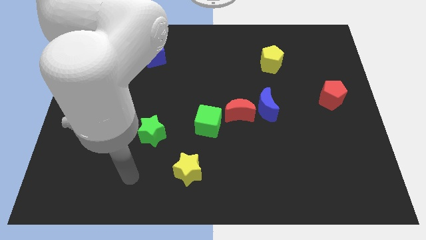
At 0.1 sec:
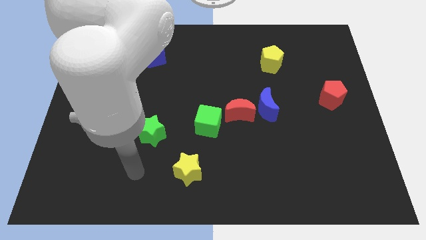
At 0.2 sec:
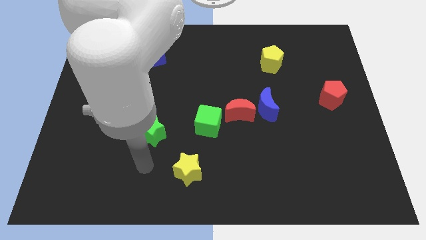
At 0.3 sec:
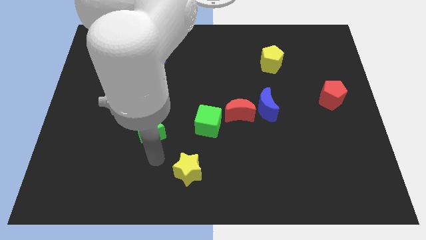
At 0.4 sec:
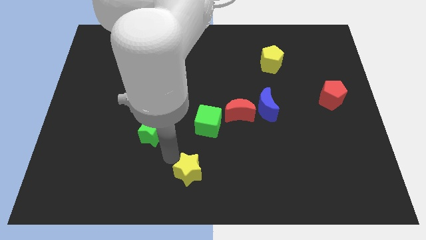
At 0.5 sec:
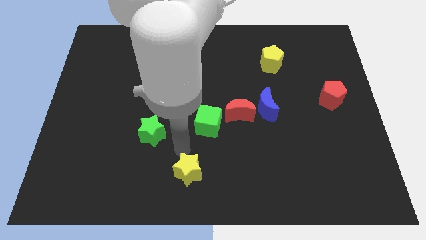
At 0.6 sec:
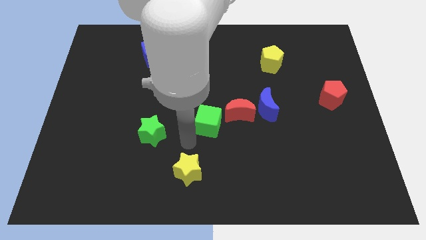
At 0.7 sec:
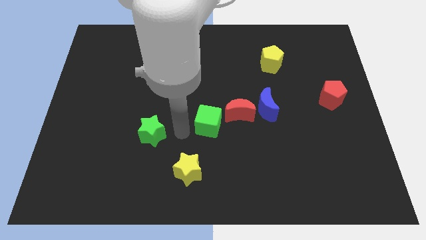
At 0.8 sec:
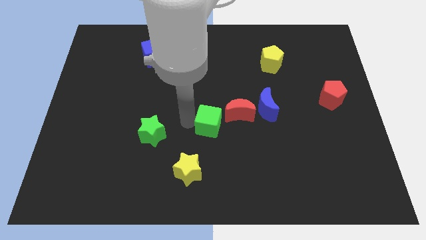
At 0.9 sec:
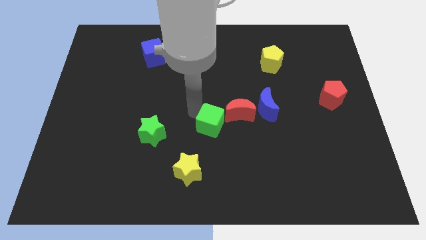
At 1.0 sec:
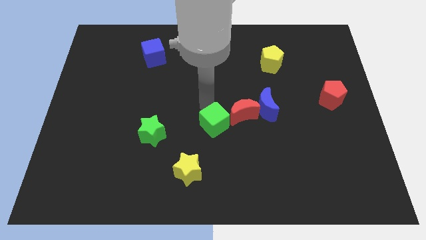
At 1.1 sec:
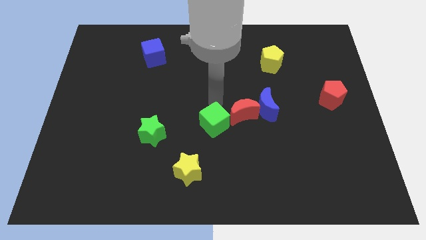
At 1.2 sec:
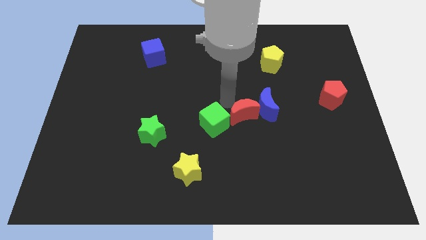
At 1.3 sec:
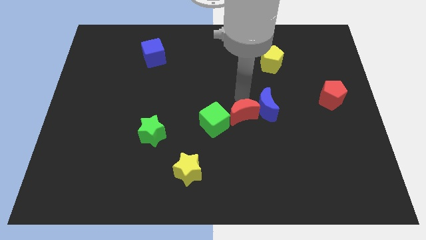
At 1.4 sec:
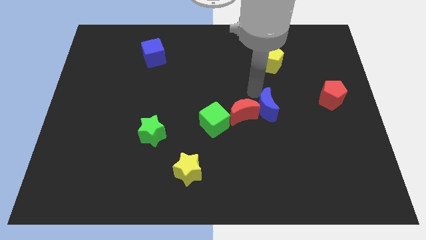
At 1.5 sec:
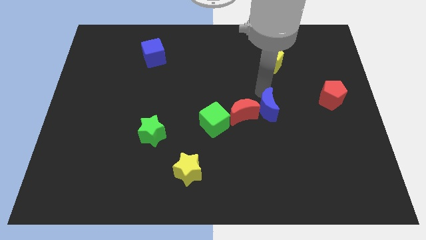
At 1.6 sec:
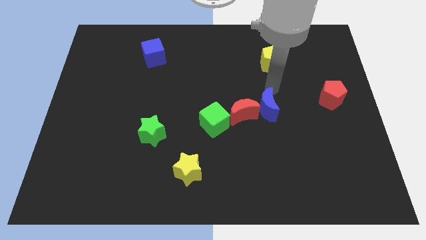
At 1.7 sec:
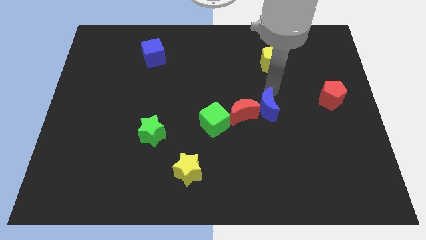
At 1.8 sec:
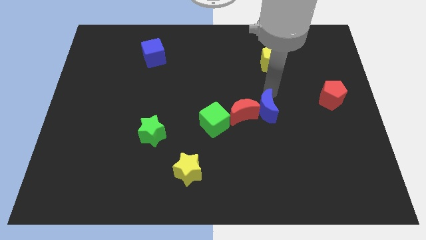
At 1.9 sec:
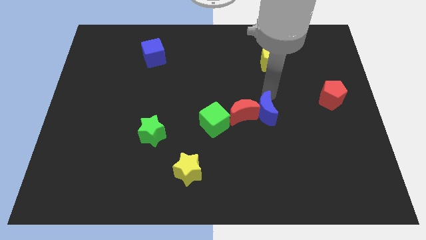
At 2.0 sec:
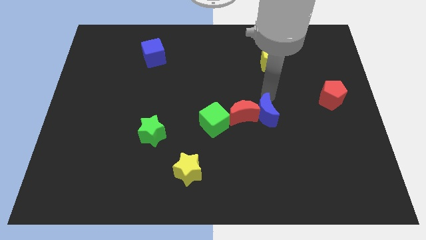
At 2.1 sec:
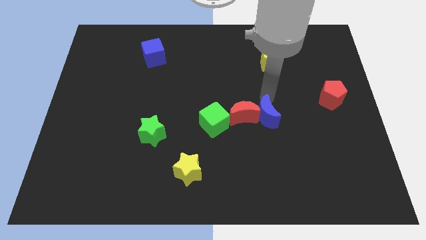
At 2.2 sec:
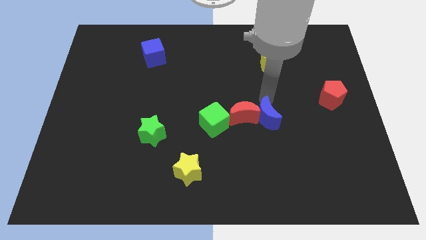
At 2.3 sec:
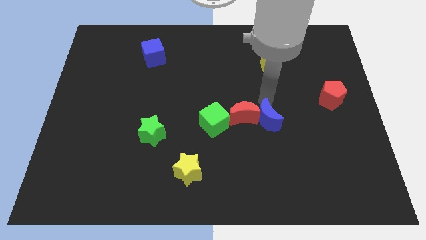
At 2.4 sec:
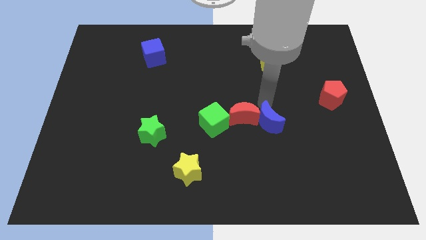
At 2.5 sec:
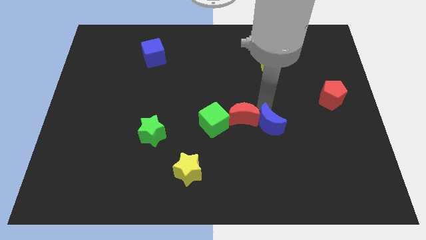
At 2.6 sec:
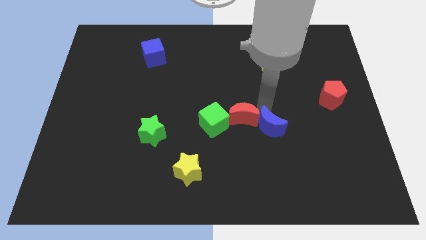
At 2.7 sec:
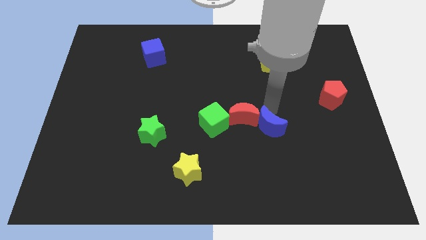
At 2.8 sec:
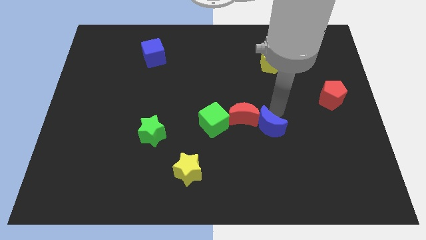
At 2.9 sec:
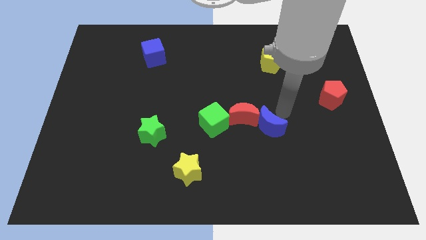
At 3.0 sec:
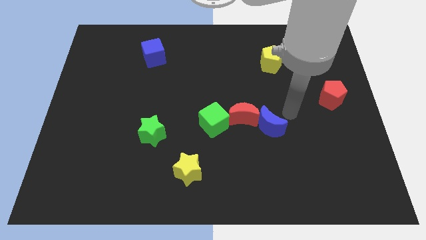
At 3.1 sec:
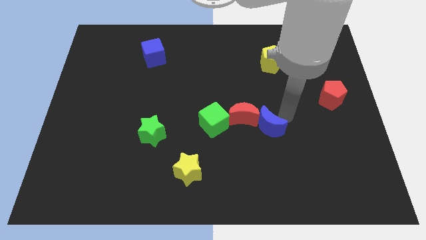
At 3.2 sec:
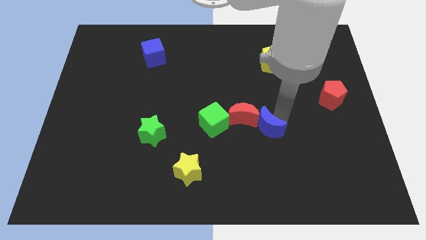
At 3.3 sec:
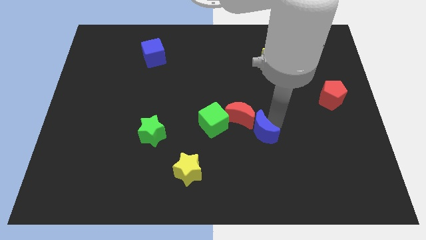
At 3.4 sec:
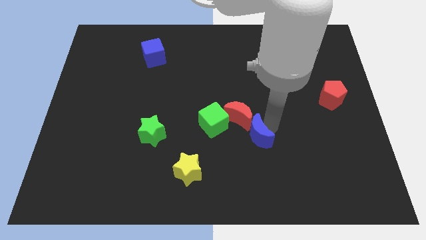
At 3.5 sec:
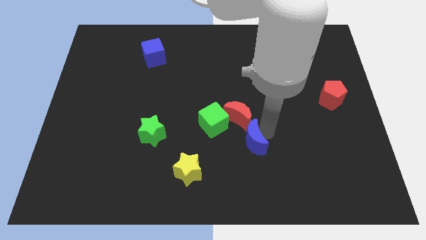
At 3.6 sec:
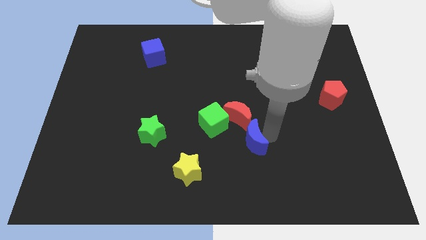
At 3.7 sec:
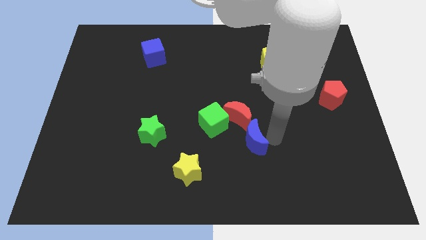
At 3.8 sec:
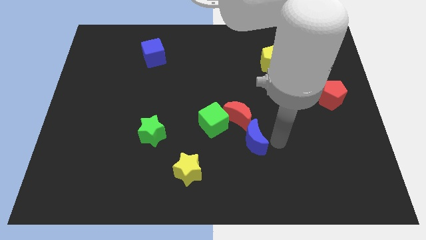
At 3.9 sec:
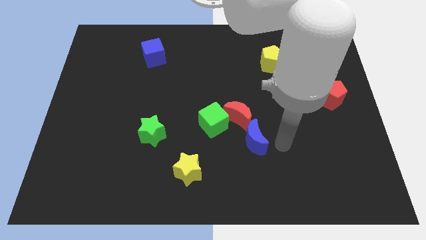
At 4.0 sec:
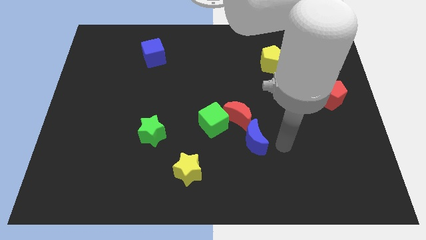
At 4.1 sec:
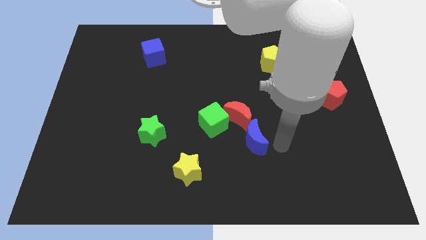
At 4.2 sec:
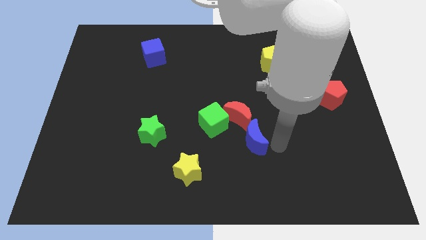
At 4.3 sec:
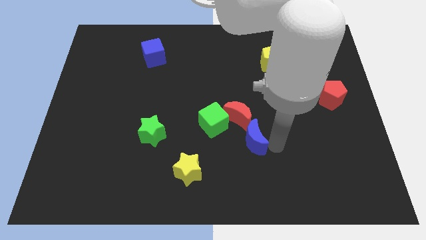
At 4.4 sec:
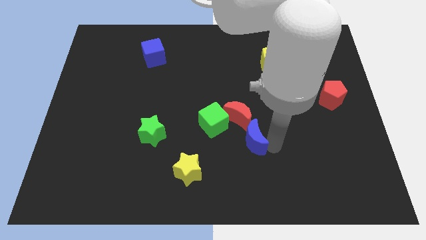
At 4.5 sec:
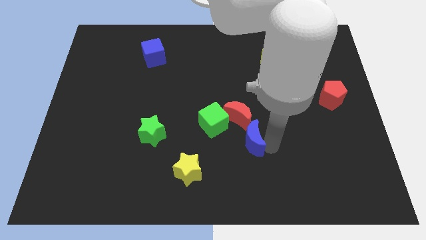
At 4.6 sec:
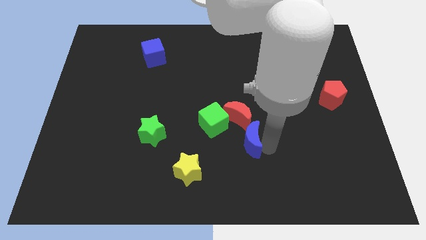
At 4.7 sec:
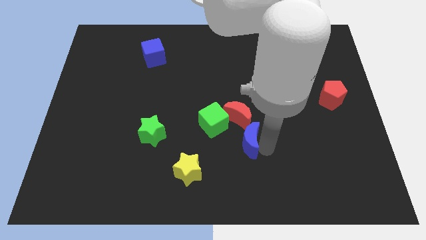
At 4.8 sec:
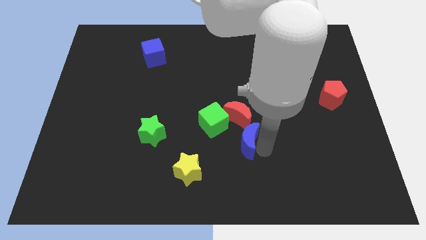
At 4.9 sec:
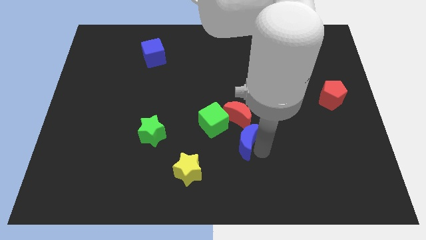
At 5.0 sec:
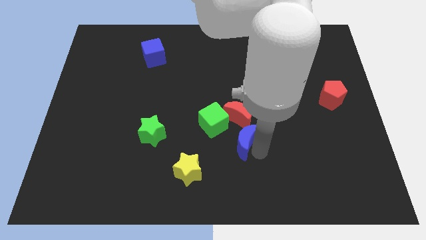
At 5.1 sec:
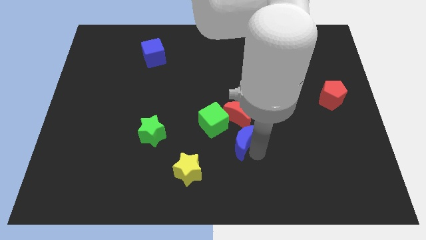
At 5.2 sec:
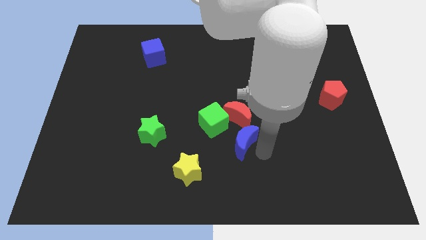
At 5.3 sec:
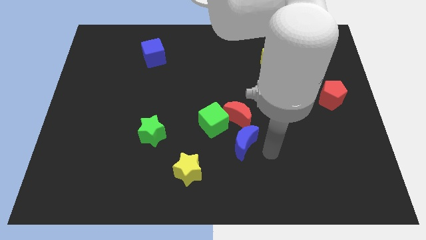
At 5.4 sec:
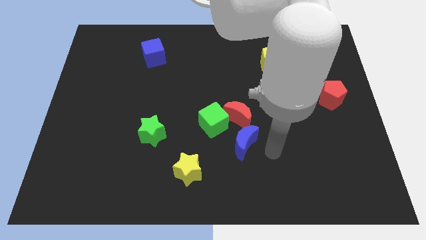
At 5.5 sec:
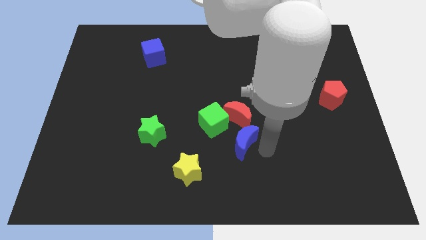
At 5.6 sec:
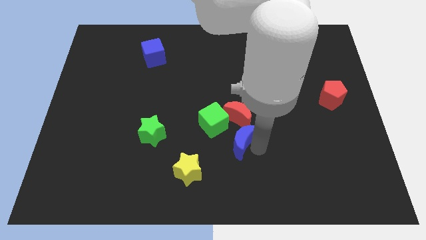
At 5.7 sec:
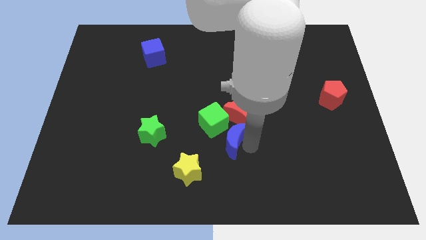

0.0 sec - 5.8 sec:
slide the blue moon diagonally down and to the left of the red moon

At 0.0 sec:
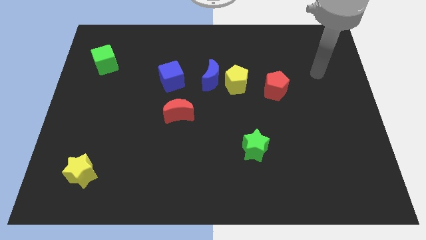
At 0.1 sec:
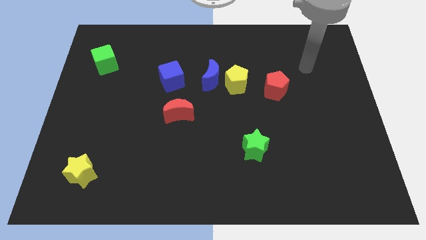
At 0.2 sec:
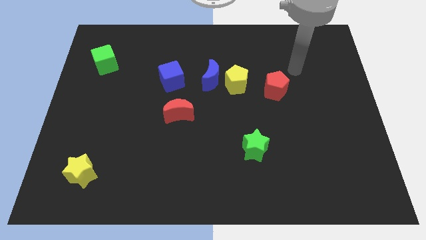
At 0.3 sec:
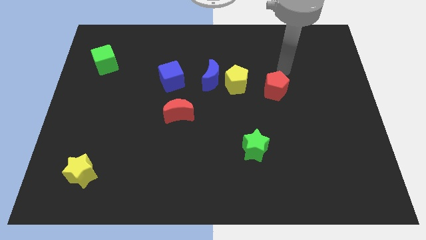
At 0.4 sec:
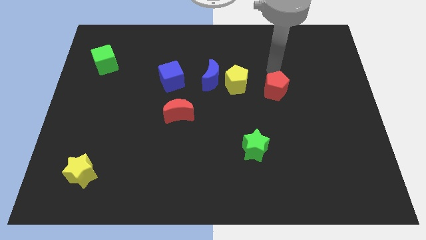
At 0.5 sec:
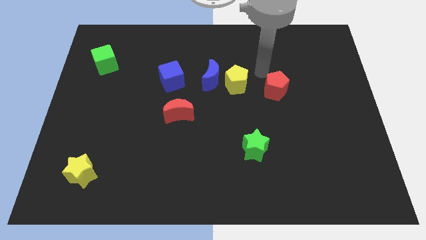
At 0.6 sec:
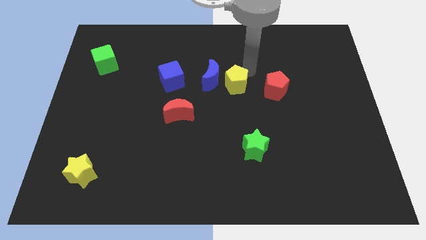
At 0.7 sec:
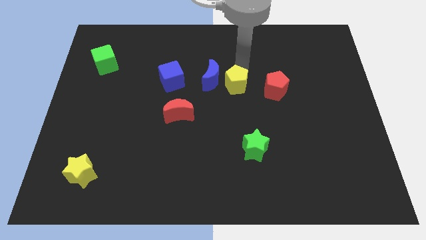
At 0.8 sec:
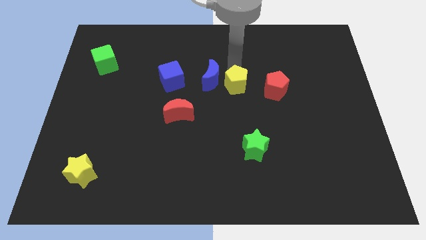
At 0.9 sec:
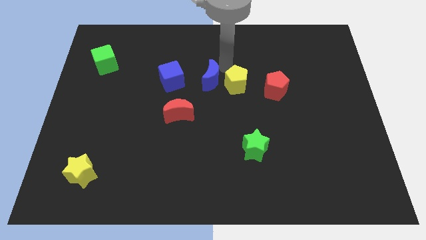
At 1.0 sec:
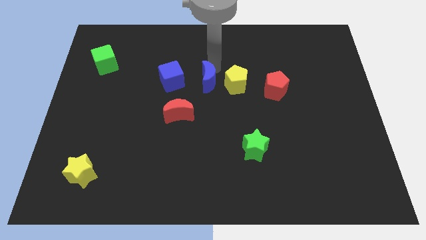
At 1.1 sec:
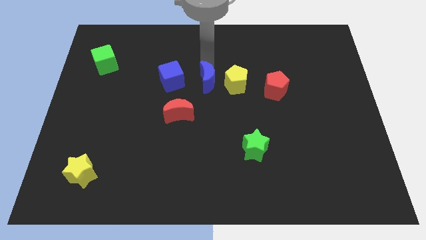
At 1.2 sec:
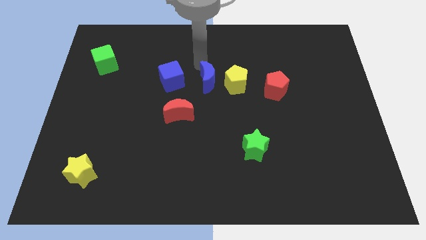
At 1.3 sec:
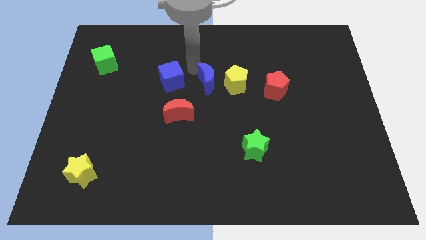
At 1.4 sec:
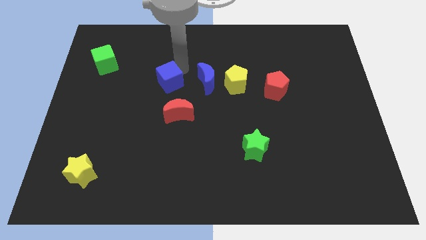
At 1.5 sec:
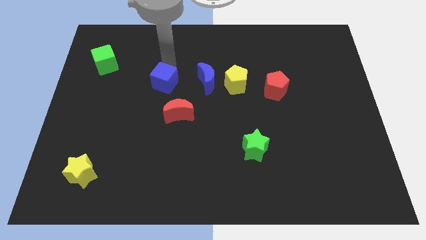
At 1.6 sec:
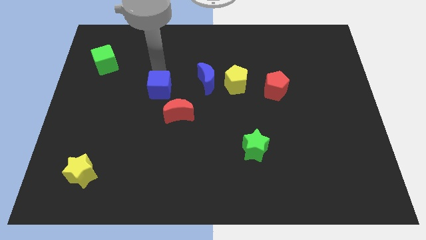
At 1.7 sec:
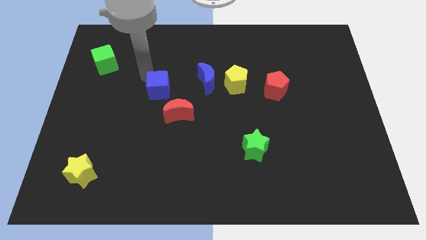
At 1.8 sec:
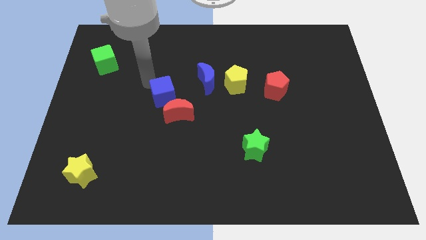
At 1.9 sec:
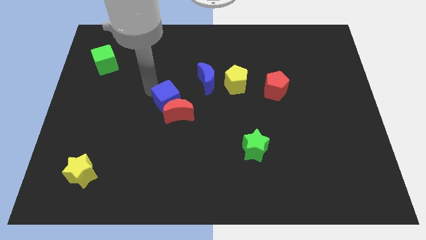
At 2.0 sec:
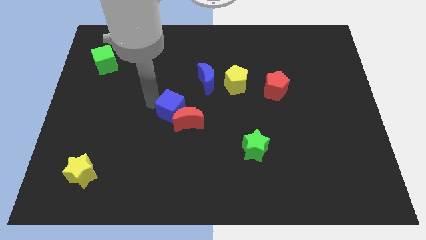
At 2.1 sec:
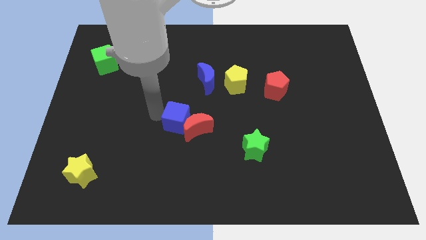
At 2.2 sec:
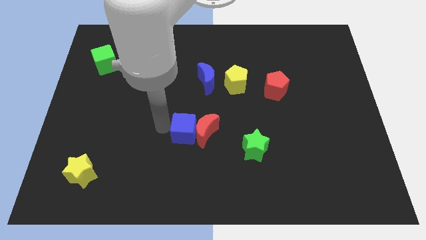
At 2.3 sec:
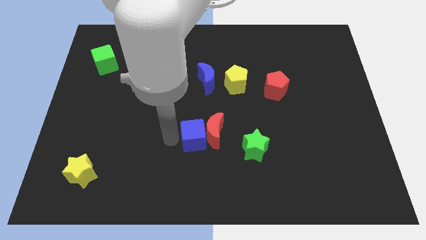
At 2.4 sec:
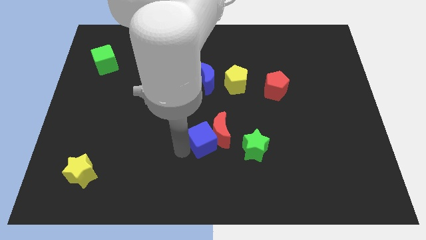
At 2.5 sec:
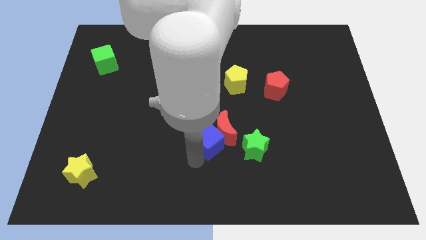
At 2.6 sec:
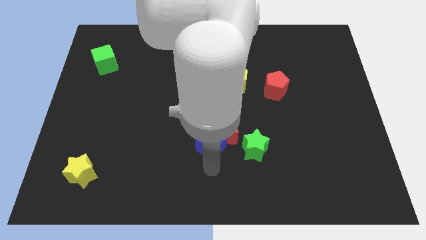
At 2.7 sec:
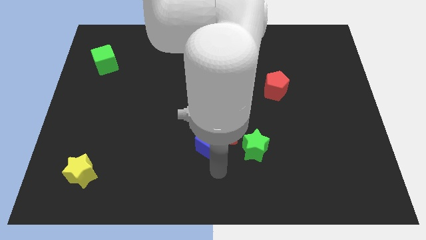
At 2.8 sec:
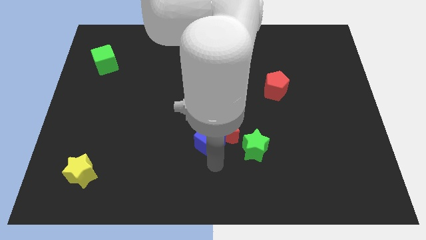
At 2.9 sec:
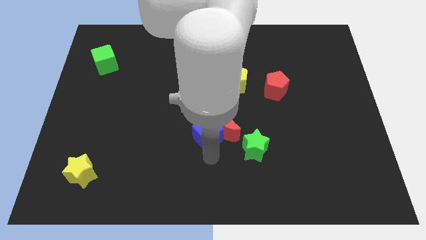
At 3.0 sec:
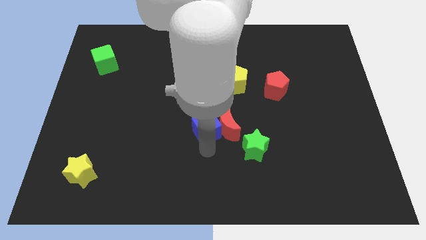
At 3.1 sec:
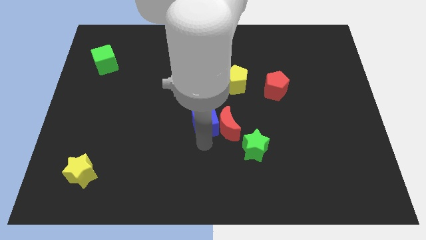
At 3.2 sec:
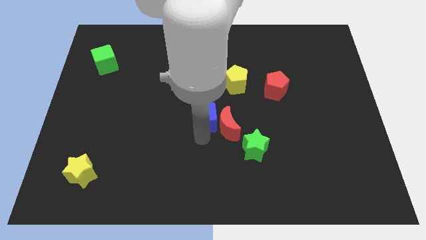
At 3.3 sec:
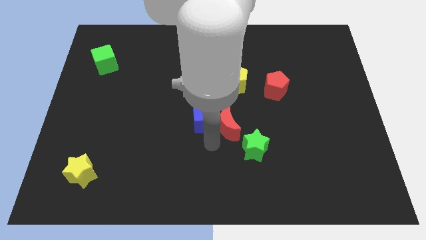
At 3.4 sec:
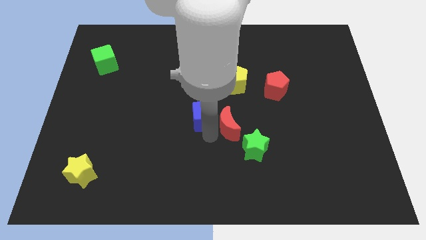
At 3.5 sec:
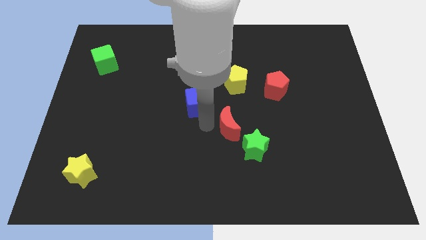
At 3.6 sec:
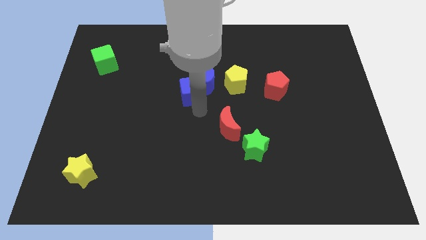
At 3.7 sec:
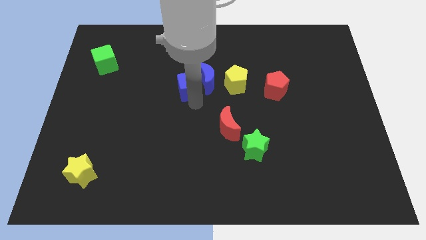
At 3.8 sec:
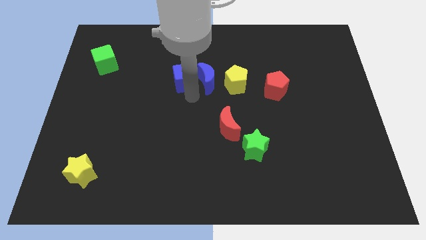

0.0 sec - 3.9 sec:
slide the blue cube diagonally up and to the left of the blue moon
